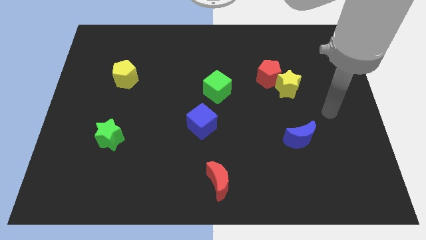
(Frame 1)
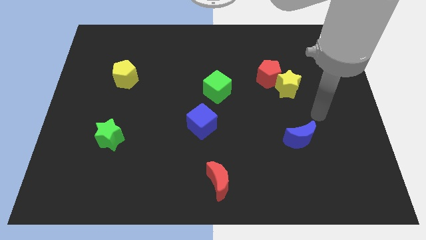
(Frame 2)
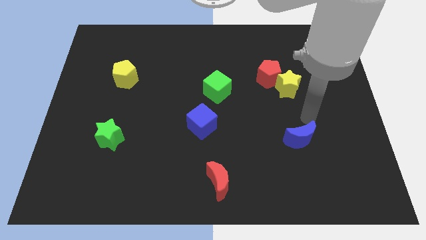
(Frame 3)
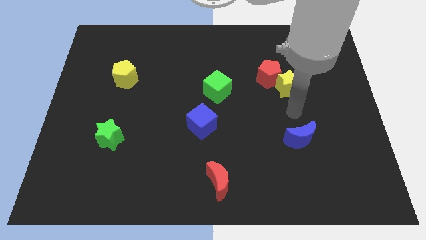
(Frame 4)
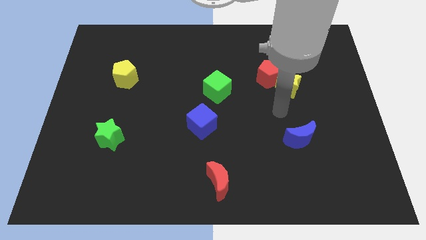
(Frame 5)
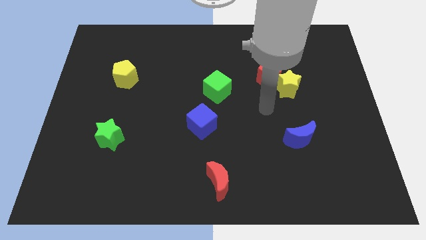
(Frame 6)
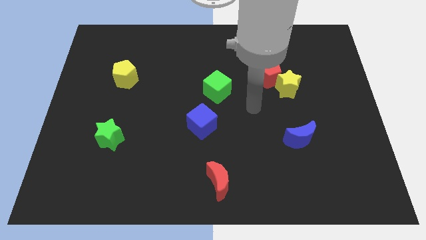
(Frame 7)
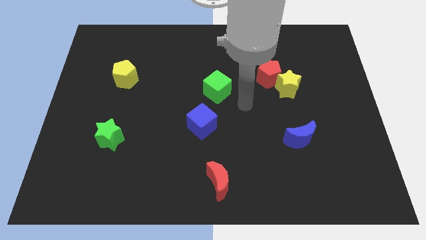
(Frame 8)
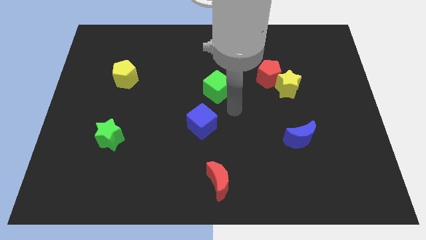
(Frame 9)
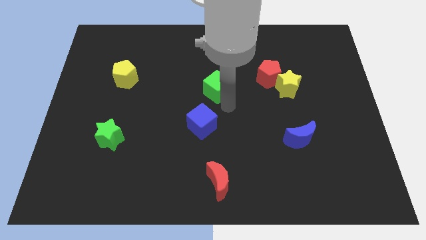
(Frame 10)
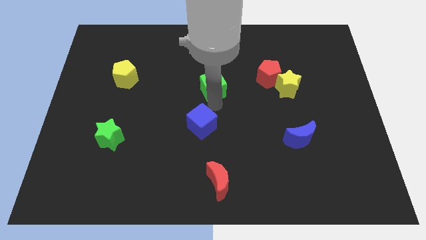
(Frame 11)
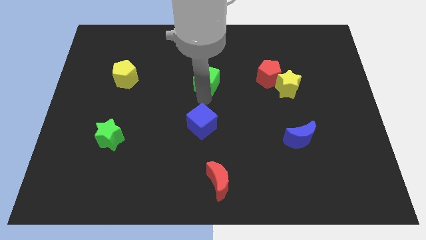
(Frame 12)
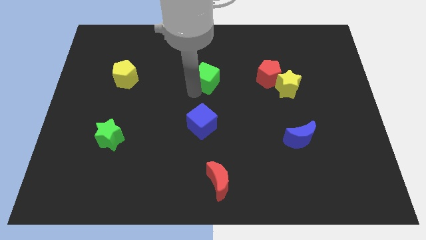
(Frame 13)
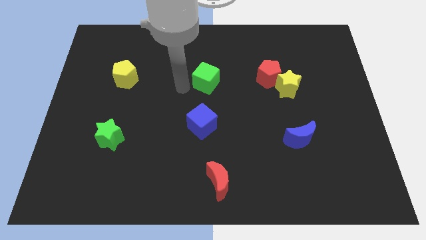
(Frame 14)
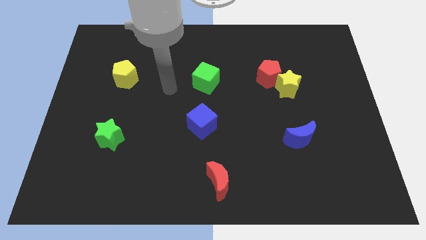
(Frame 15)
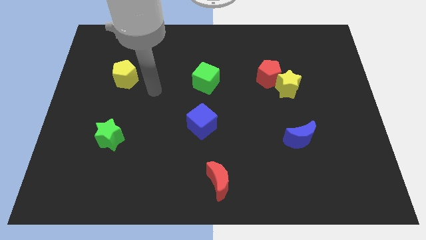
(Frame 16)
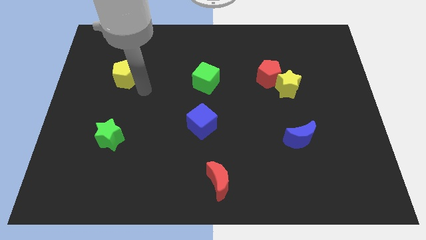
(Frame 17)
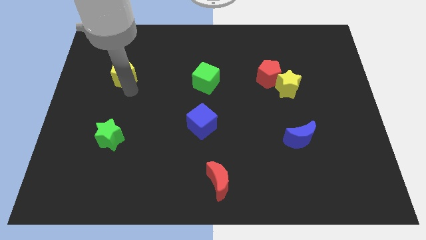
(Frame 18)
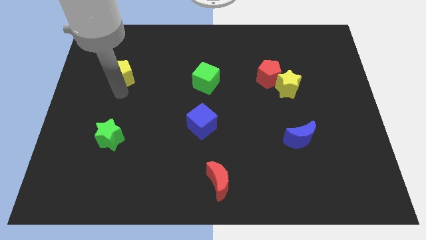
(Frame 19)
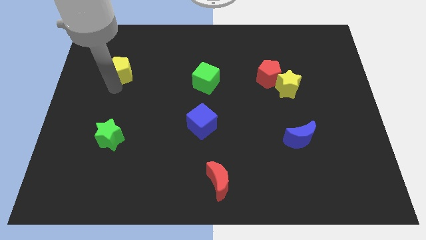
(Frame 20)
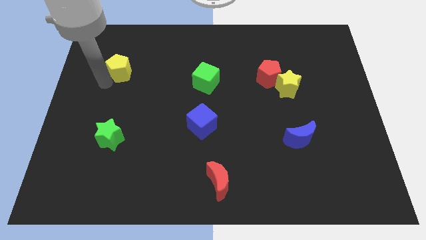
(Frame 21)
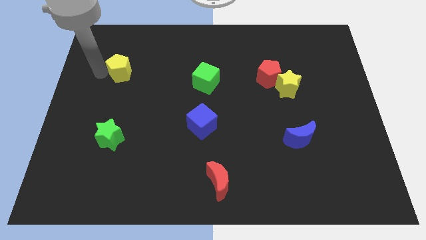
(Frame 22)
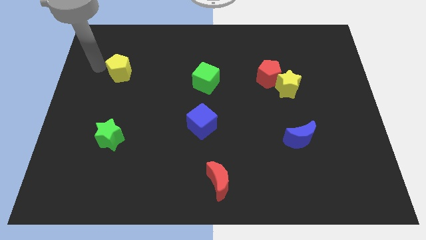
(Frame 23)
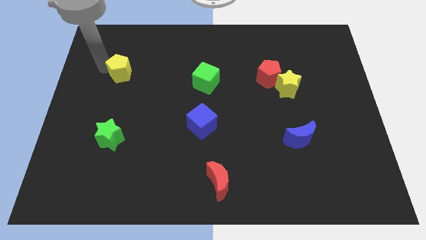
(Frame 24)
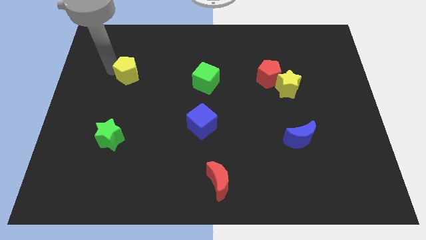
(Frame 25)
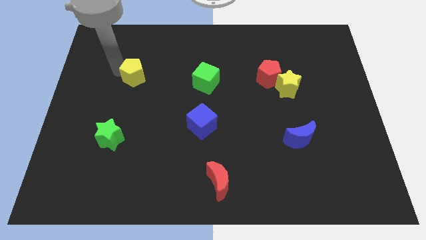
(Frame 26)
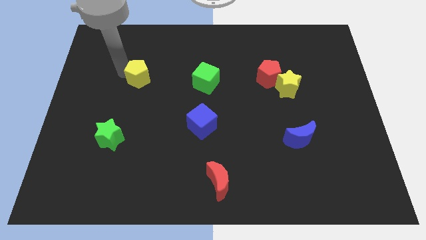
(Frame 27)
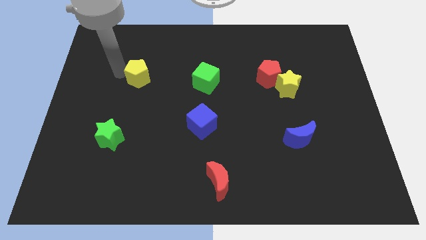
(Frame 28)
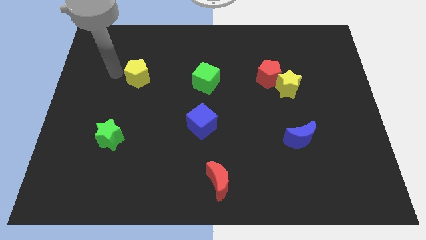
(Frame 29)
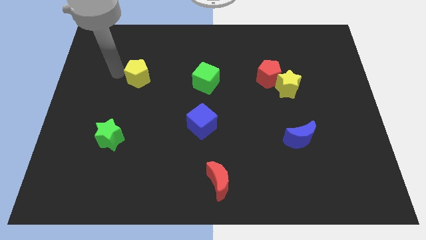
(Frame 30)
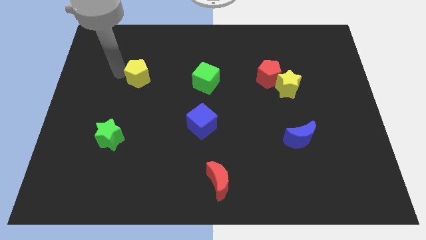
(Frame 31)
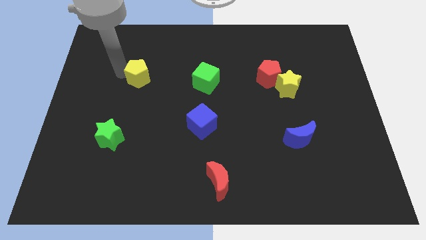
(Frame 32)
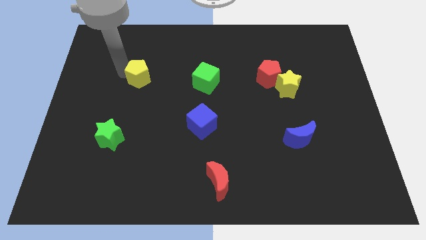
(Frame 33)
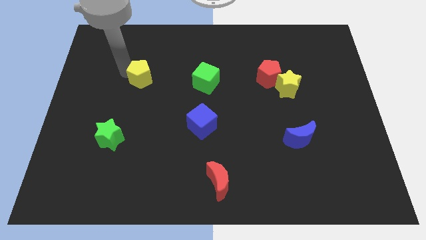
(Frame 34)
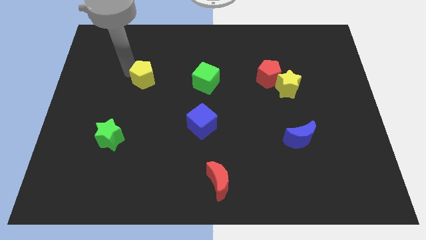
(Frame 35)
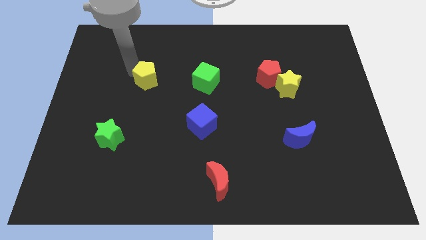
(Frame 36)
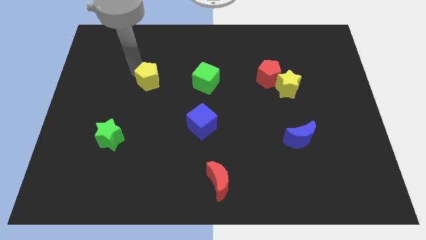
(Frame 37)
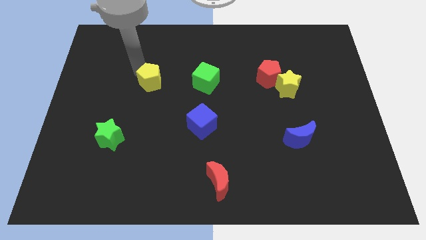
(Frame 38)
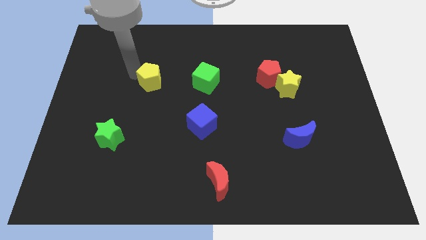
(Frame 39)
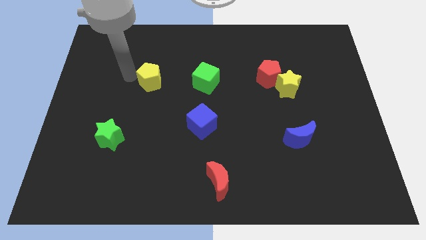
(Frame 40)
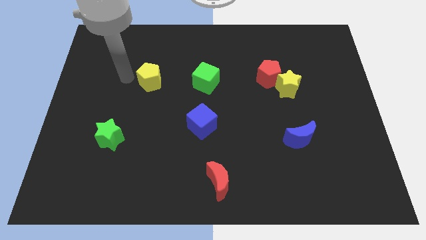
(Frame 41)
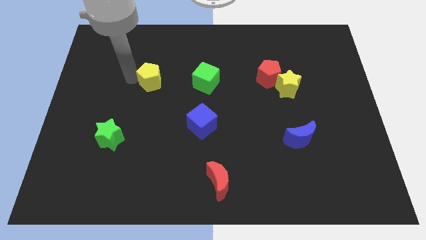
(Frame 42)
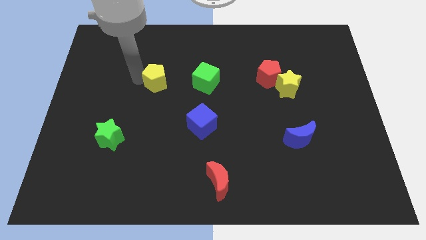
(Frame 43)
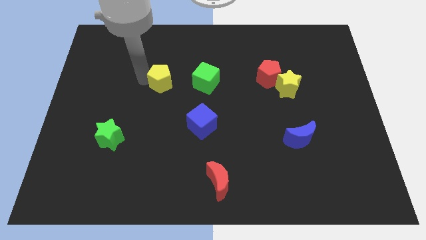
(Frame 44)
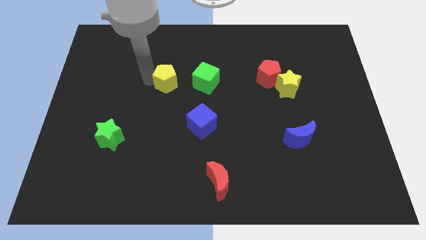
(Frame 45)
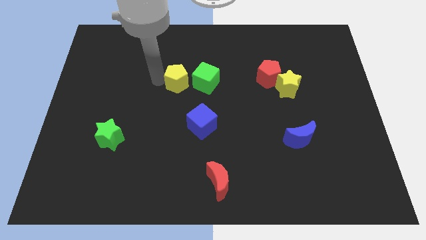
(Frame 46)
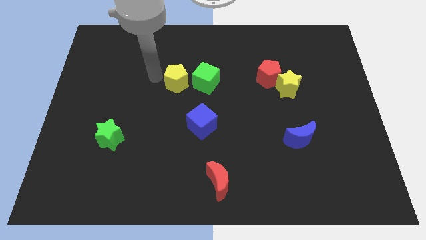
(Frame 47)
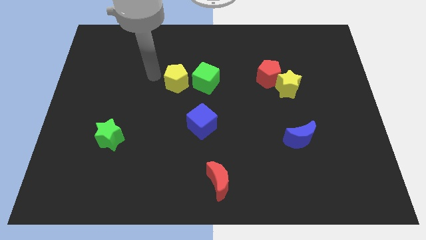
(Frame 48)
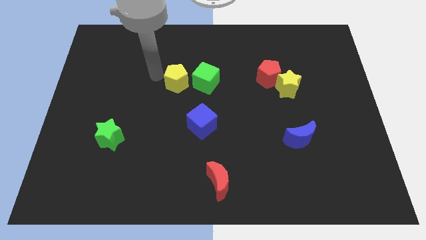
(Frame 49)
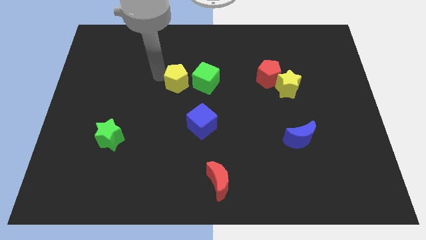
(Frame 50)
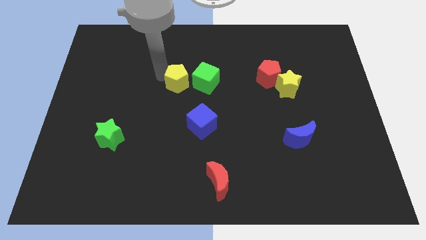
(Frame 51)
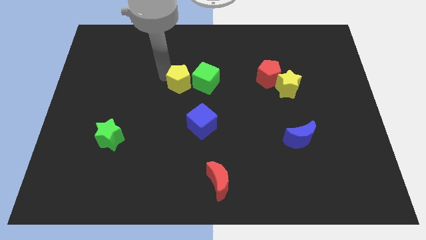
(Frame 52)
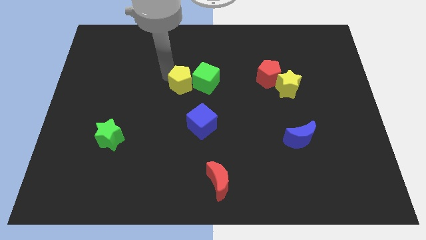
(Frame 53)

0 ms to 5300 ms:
move the yellow pentagon to the green cube
